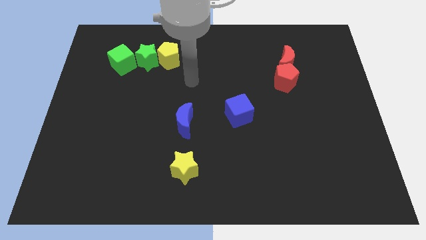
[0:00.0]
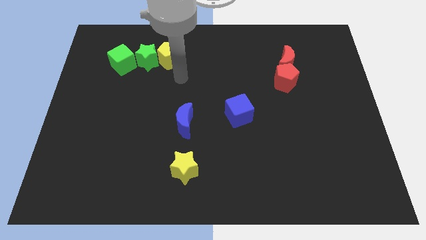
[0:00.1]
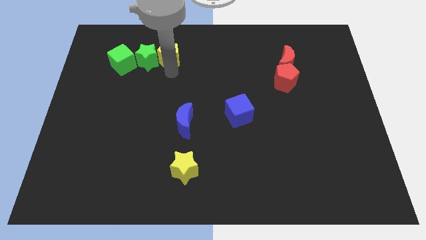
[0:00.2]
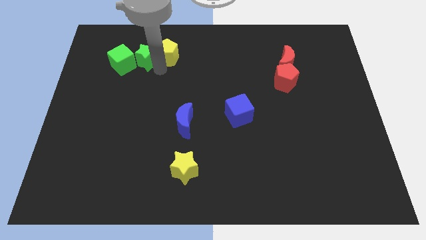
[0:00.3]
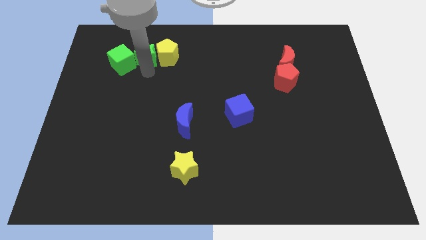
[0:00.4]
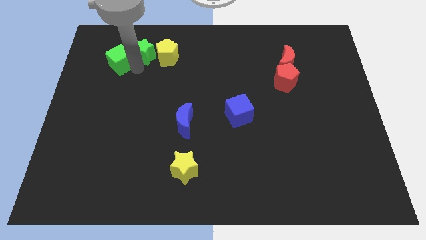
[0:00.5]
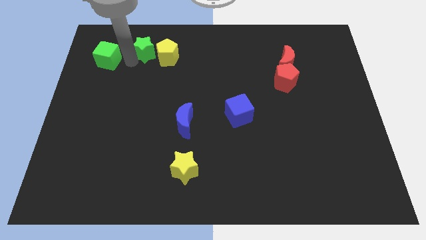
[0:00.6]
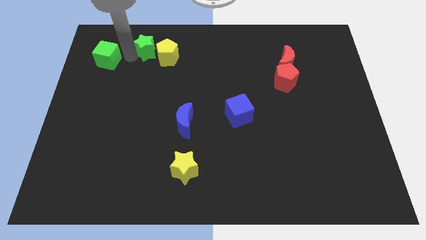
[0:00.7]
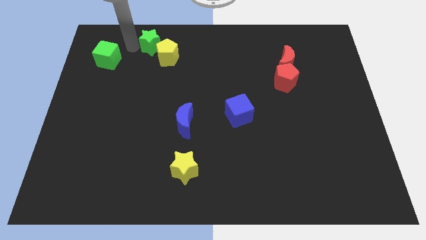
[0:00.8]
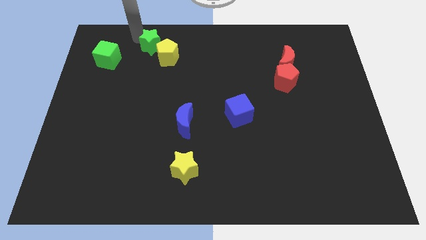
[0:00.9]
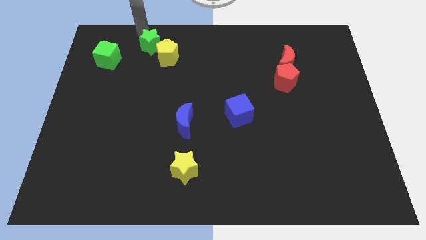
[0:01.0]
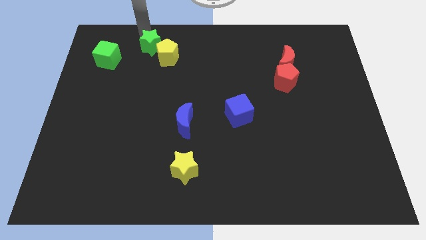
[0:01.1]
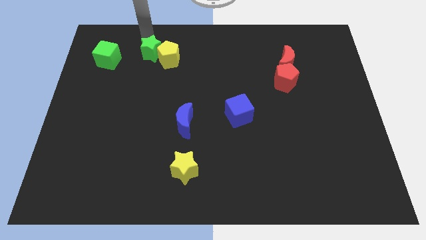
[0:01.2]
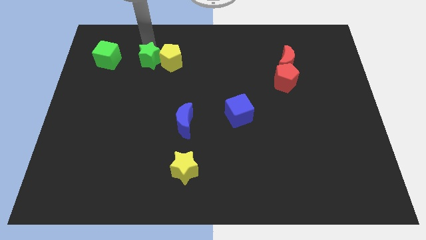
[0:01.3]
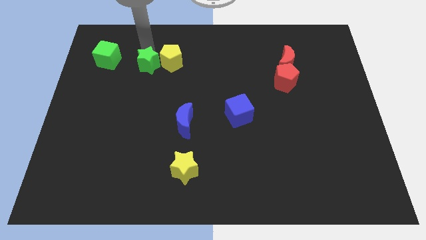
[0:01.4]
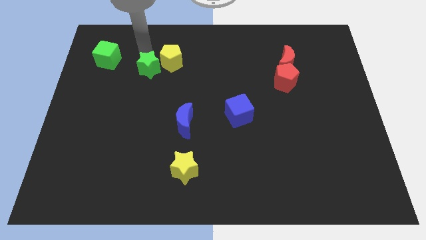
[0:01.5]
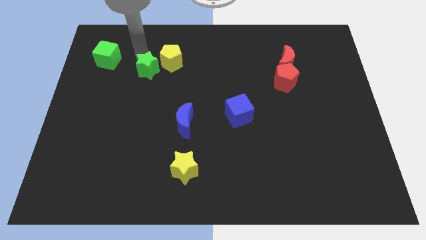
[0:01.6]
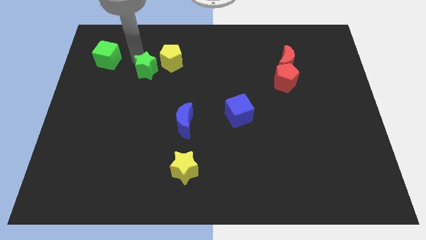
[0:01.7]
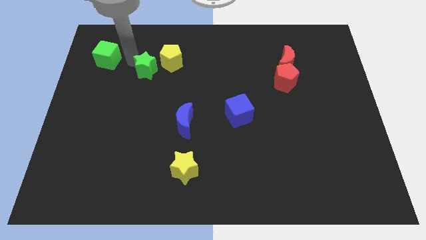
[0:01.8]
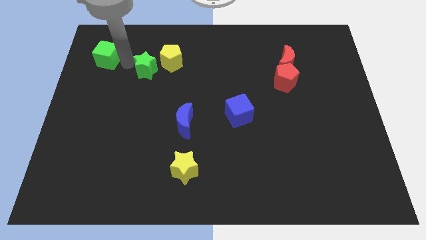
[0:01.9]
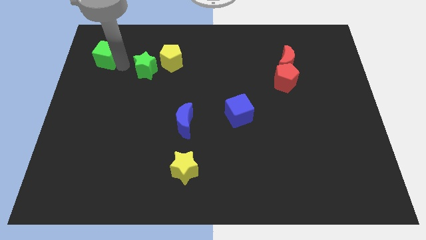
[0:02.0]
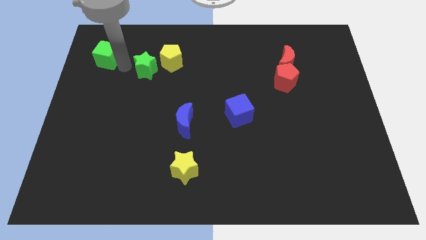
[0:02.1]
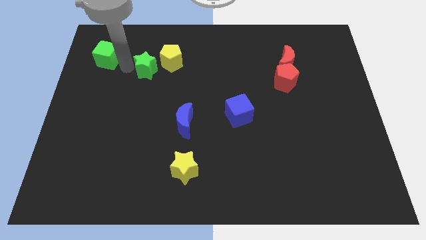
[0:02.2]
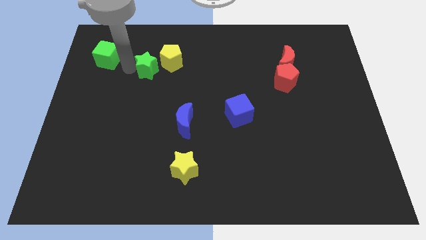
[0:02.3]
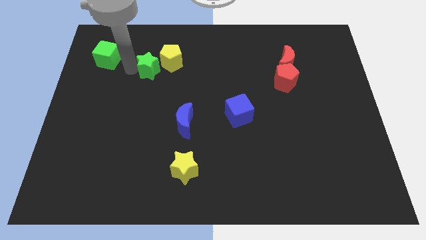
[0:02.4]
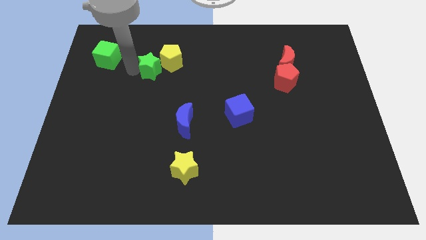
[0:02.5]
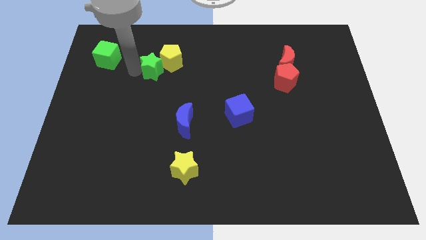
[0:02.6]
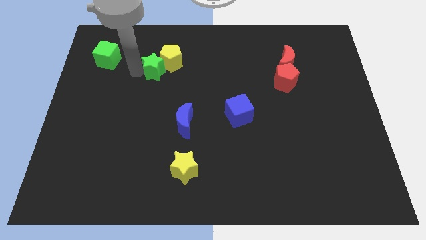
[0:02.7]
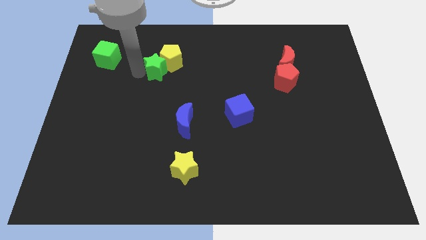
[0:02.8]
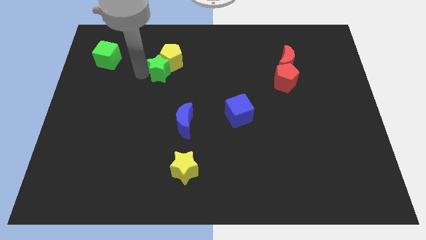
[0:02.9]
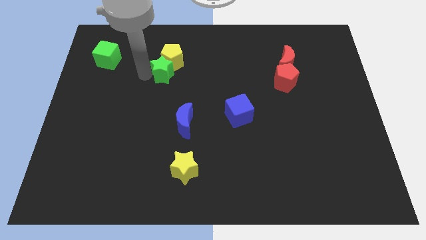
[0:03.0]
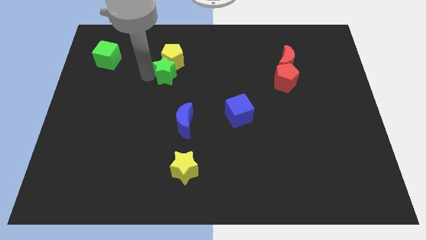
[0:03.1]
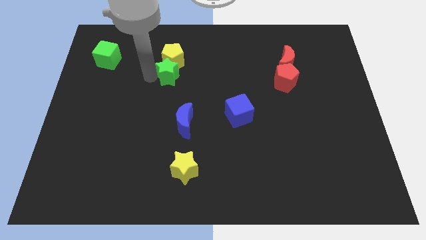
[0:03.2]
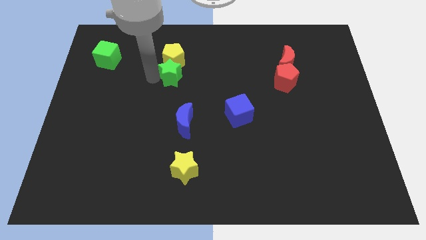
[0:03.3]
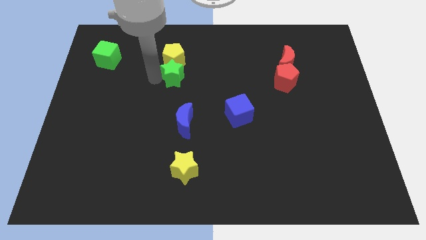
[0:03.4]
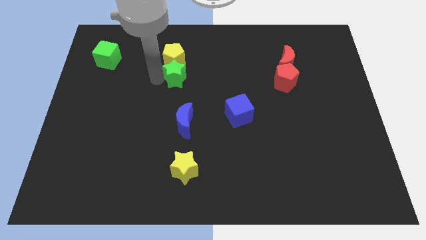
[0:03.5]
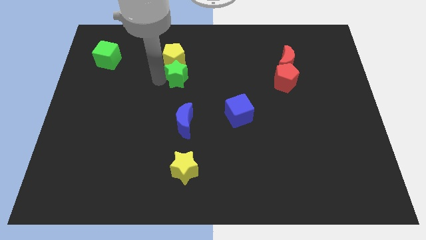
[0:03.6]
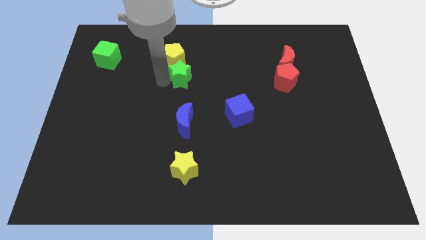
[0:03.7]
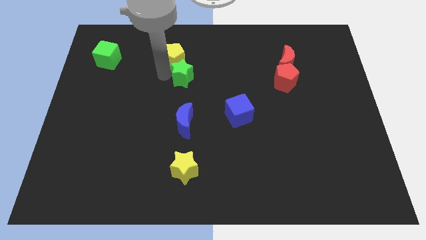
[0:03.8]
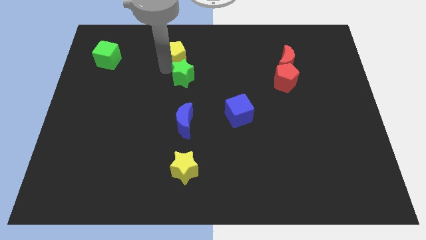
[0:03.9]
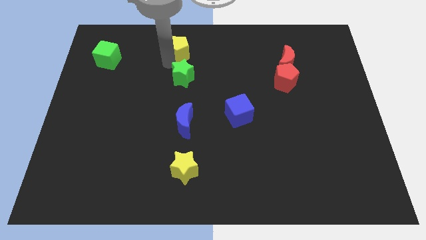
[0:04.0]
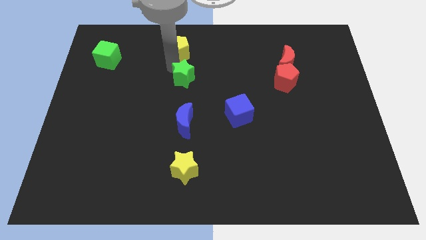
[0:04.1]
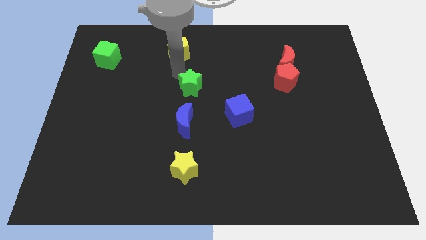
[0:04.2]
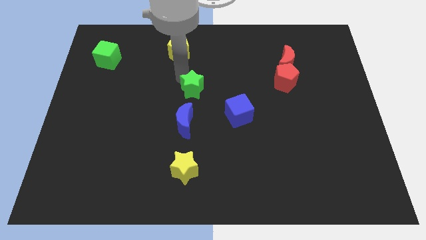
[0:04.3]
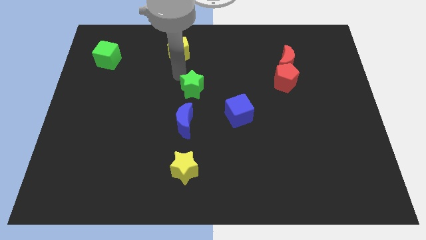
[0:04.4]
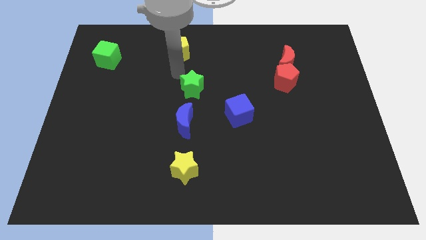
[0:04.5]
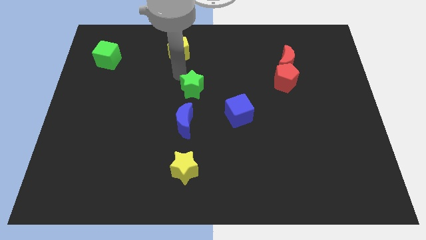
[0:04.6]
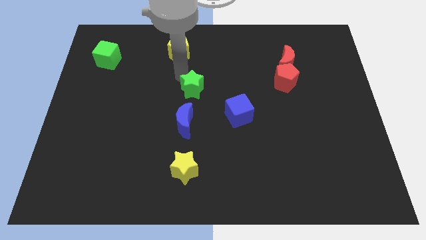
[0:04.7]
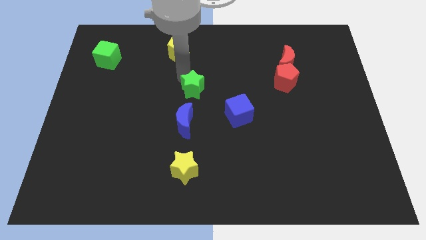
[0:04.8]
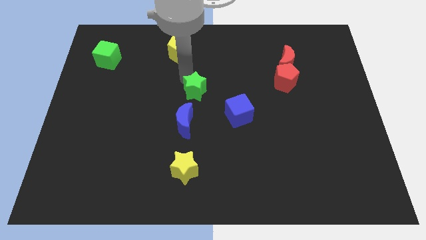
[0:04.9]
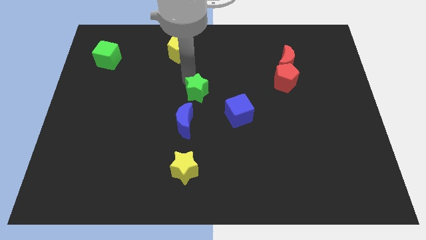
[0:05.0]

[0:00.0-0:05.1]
put the green star to the top right of the blue moon

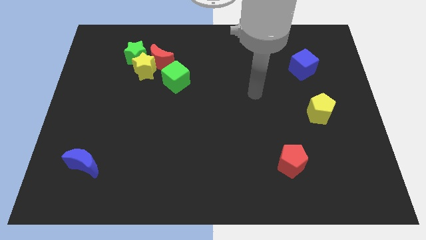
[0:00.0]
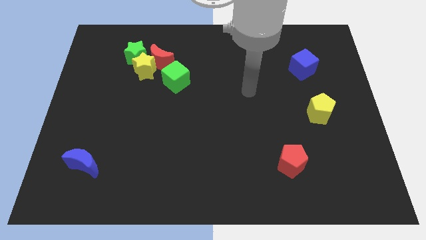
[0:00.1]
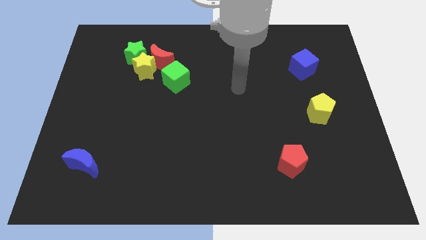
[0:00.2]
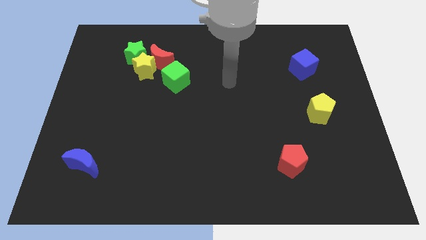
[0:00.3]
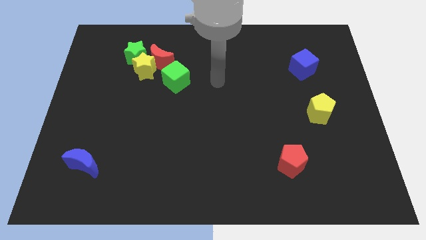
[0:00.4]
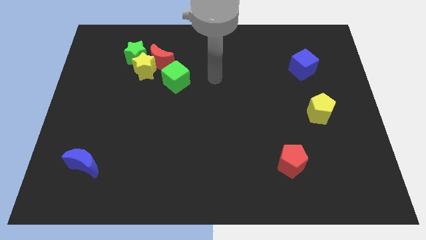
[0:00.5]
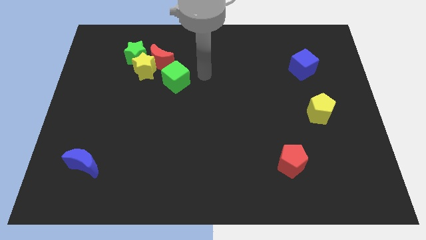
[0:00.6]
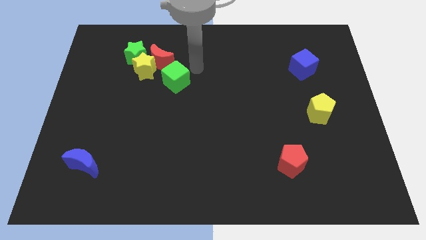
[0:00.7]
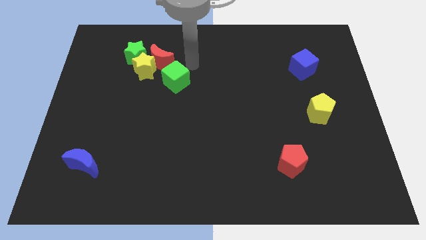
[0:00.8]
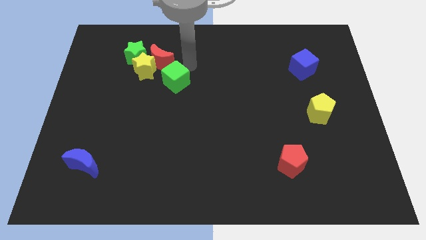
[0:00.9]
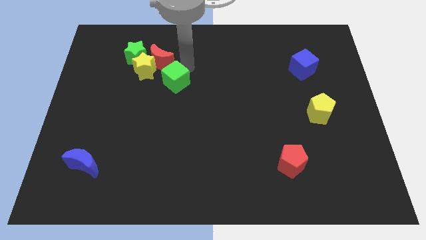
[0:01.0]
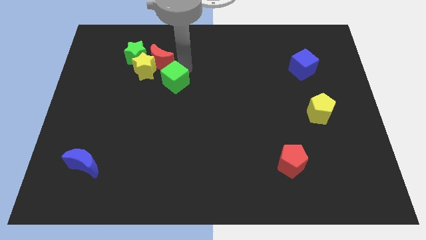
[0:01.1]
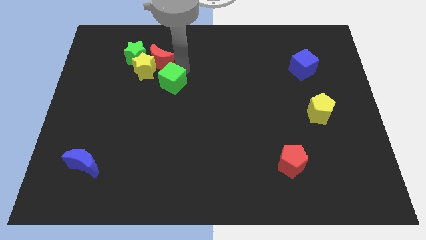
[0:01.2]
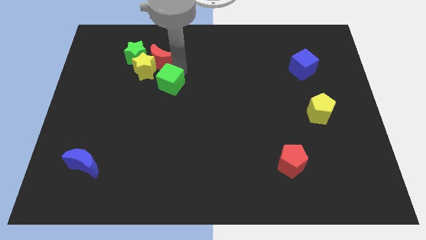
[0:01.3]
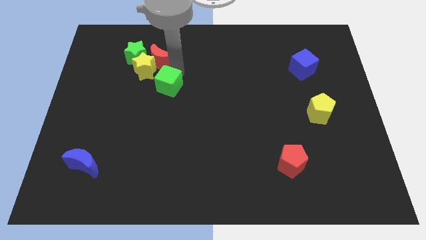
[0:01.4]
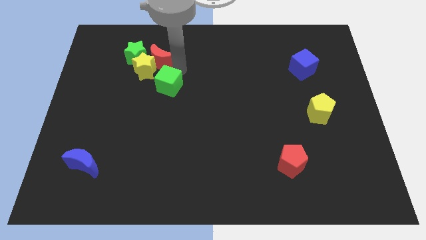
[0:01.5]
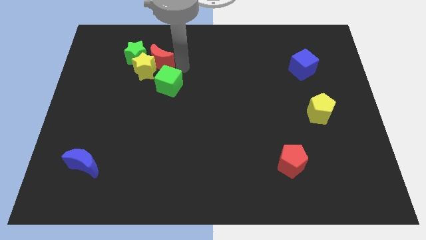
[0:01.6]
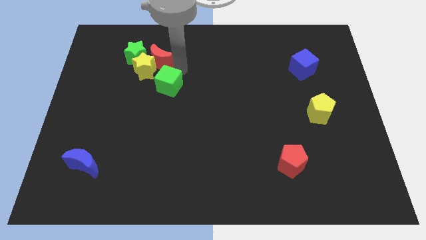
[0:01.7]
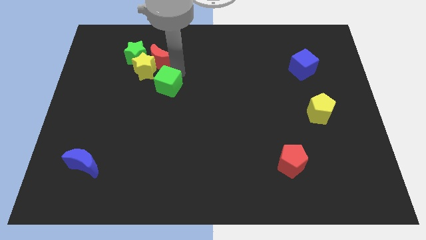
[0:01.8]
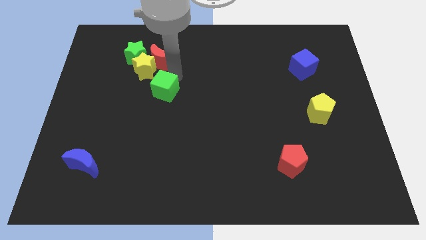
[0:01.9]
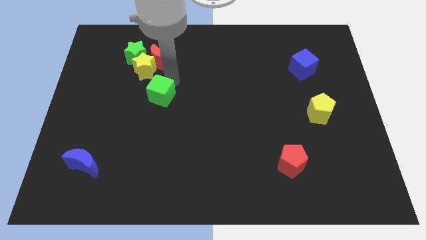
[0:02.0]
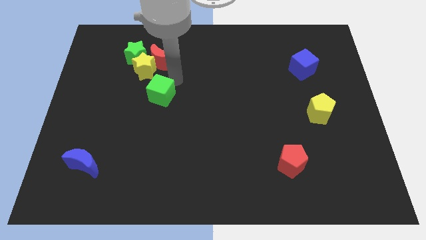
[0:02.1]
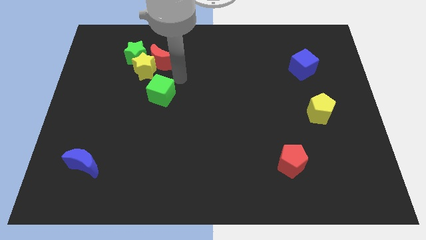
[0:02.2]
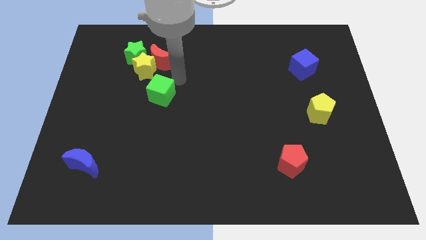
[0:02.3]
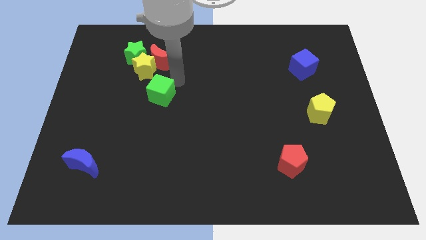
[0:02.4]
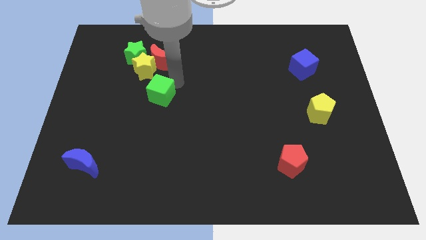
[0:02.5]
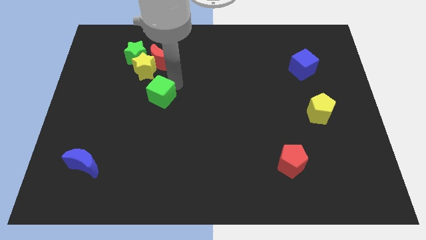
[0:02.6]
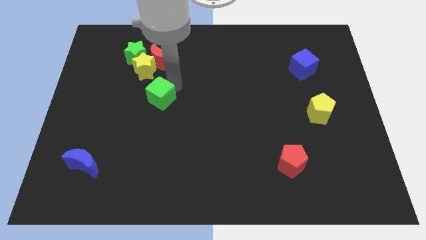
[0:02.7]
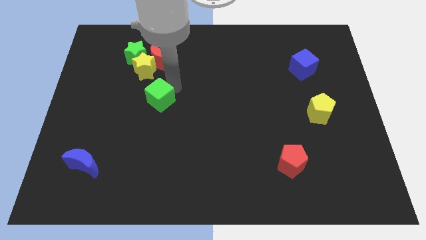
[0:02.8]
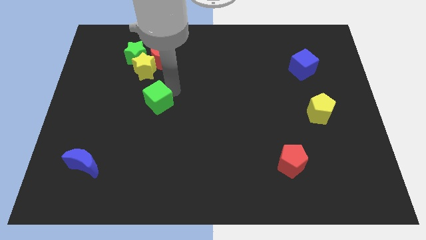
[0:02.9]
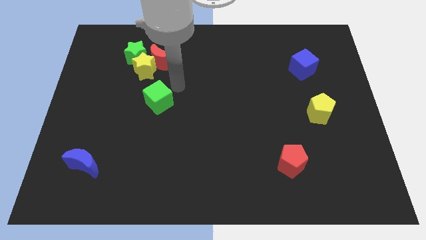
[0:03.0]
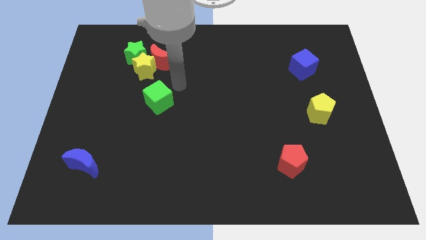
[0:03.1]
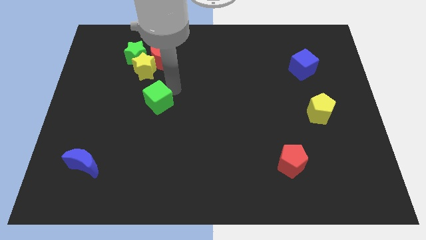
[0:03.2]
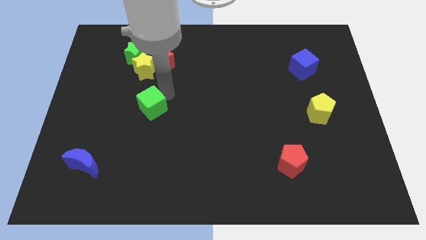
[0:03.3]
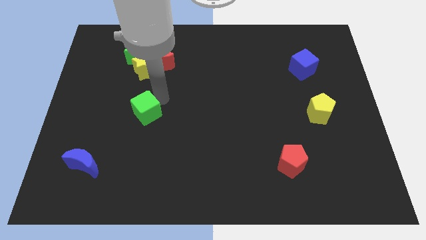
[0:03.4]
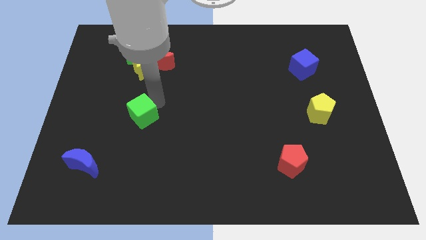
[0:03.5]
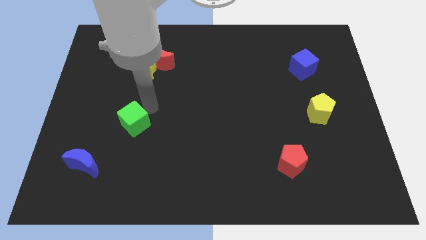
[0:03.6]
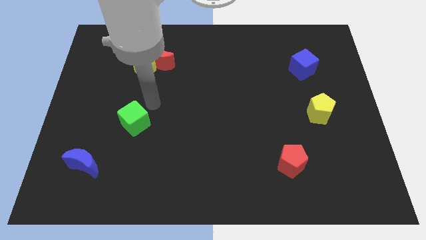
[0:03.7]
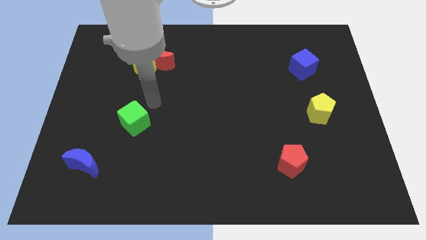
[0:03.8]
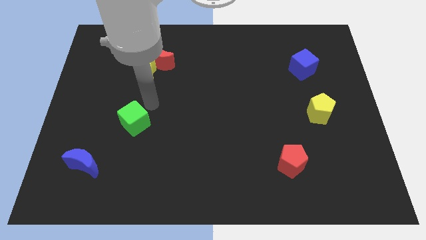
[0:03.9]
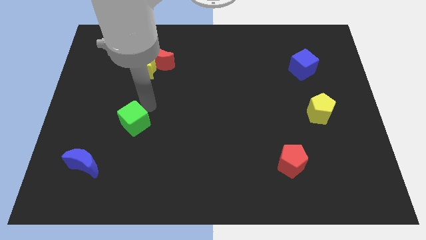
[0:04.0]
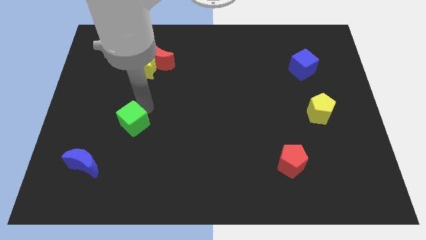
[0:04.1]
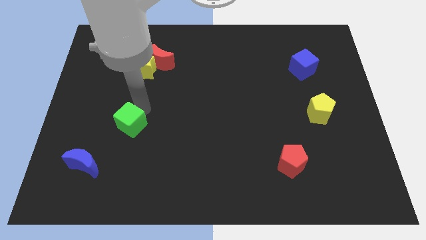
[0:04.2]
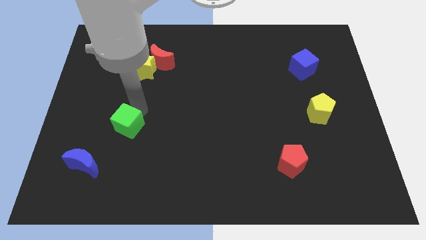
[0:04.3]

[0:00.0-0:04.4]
move the green cube to the top right side of the blue moon
